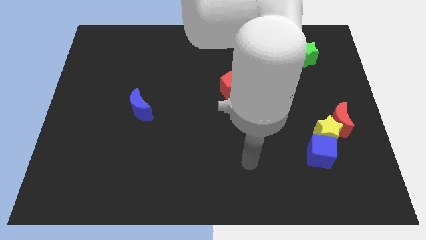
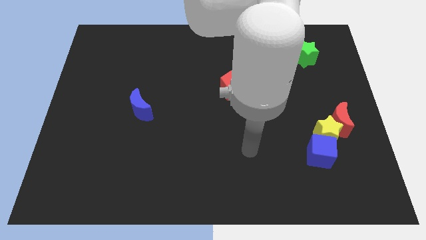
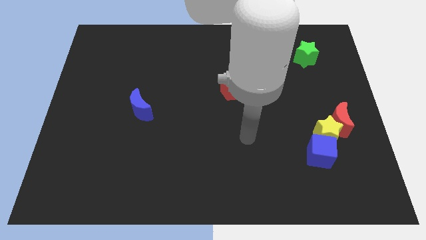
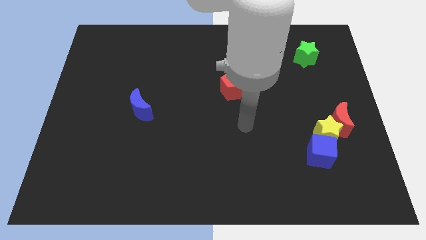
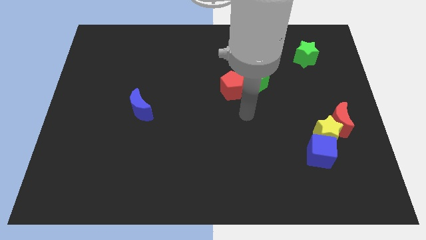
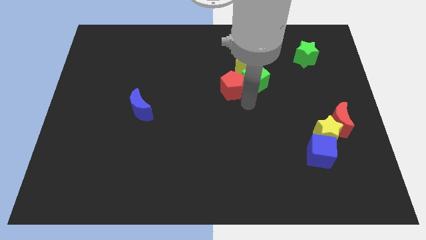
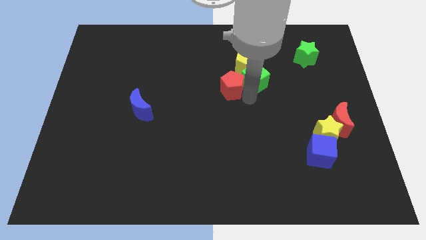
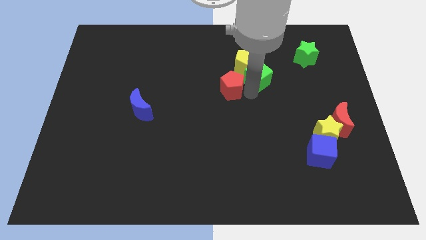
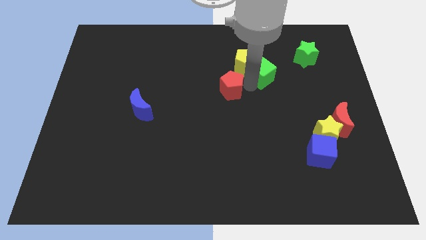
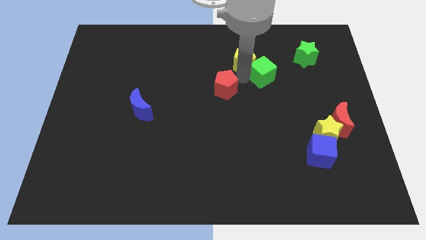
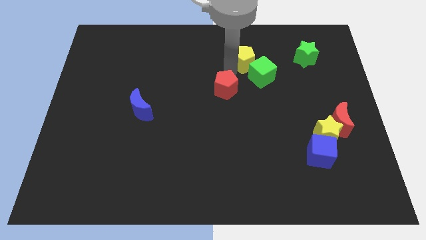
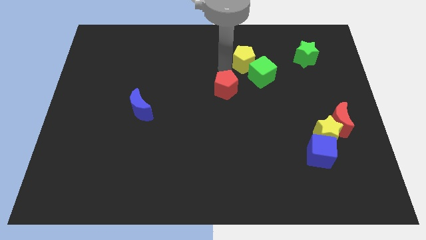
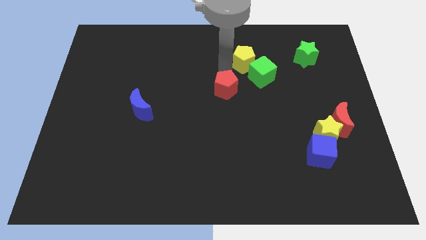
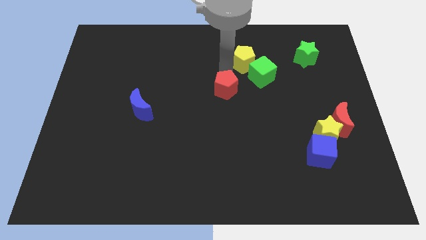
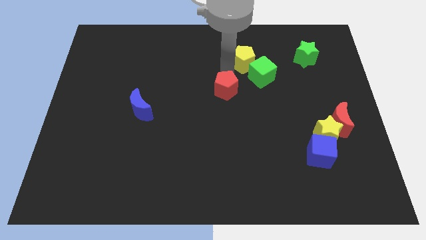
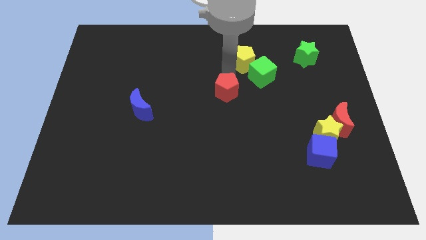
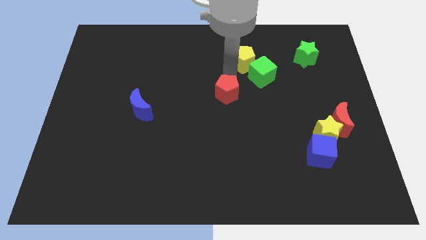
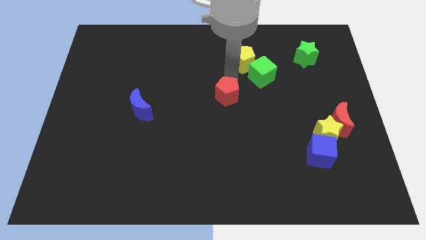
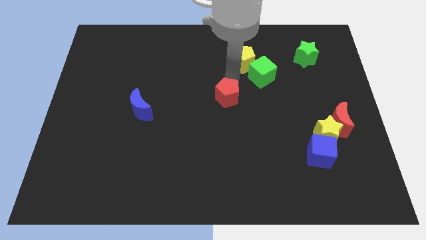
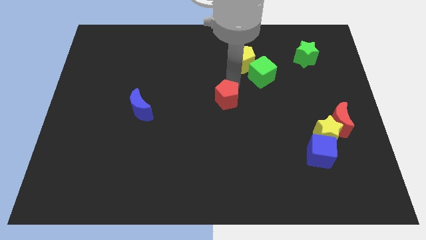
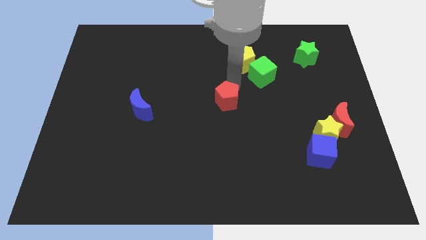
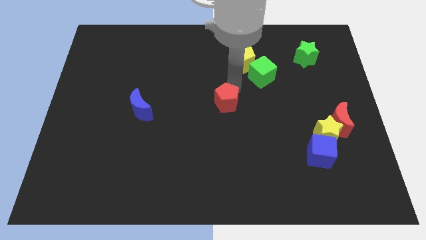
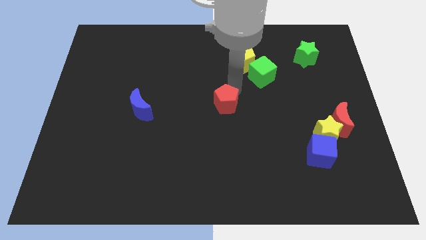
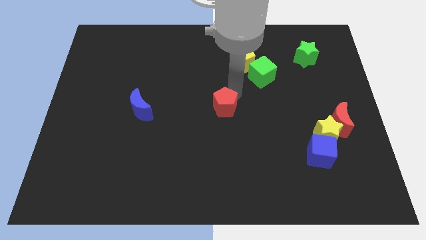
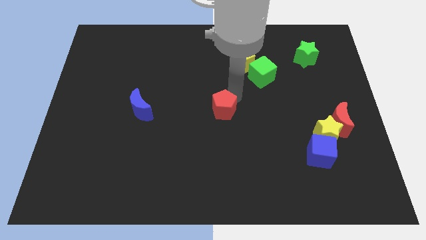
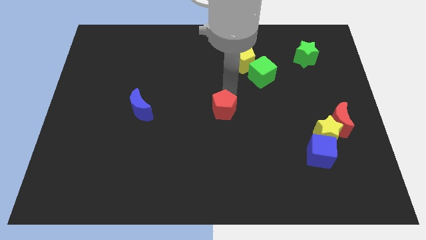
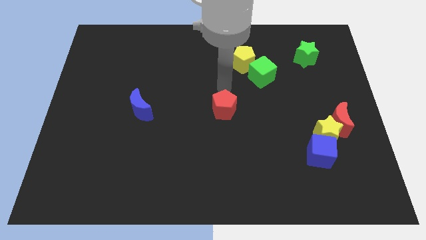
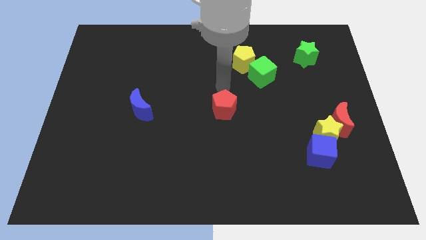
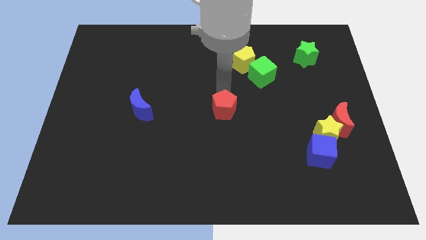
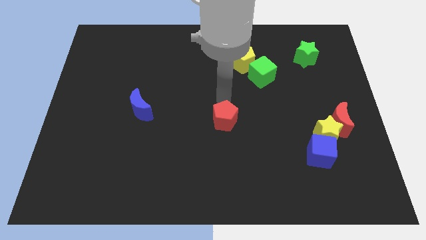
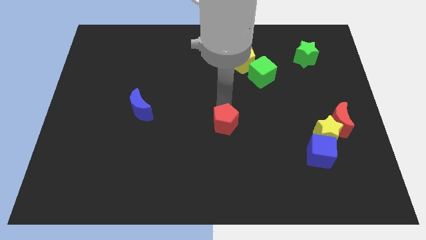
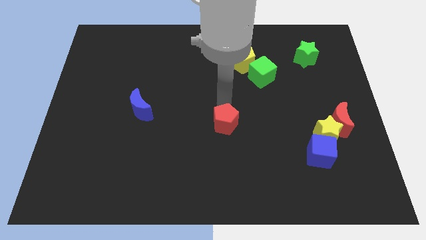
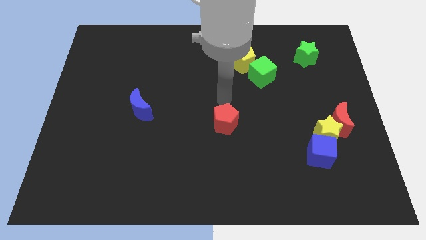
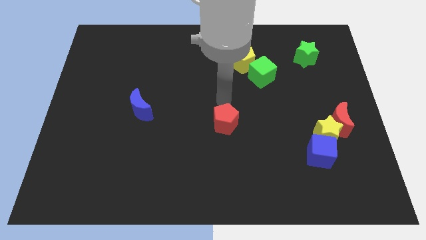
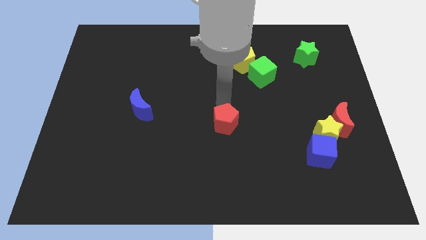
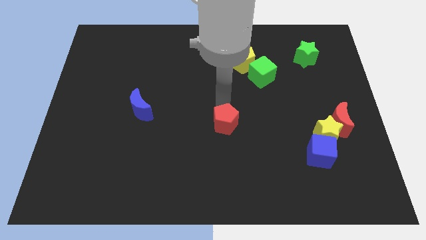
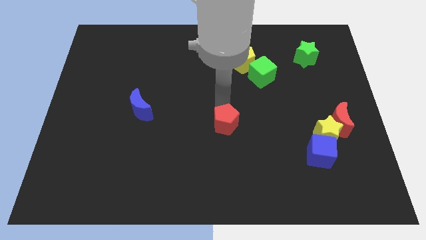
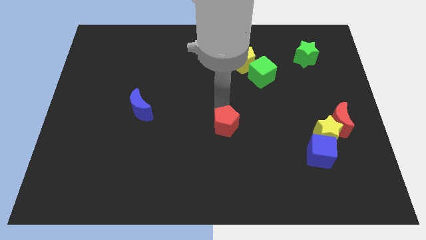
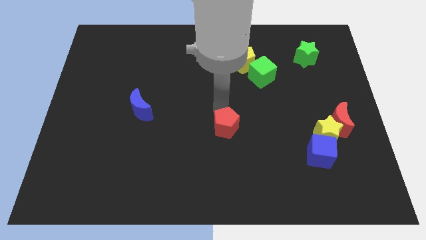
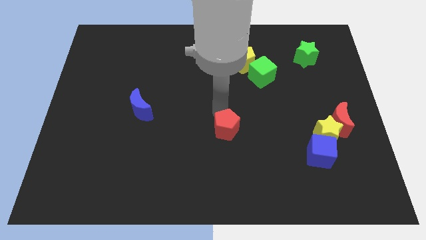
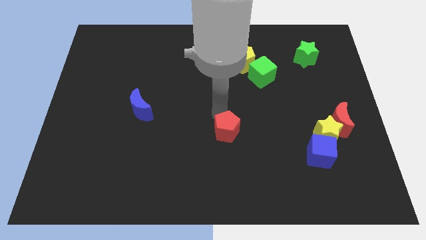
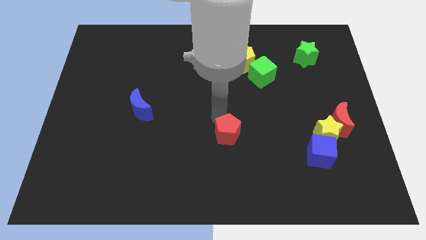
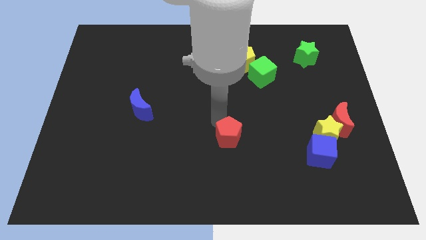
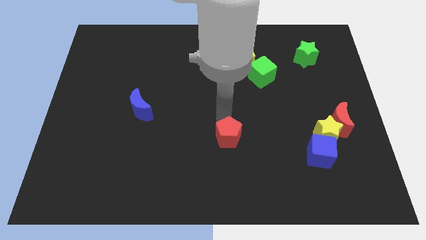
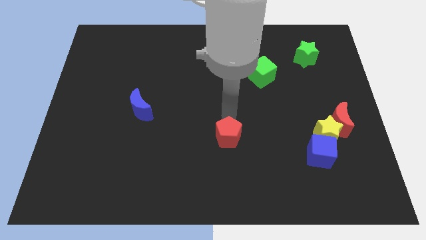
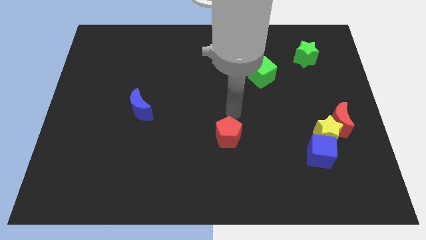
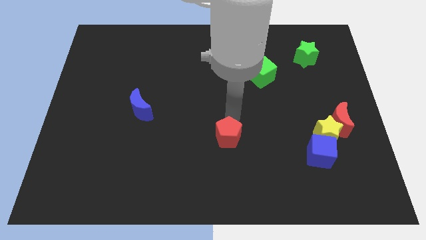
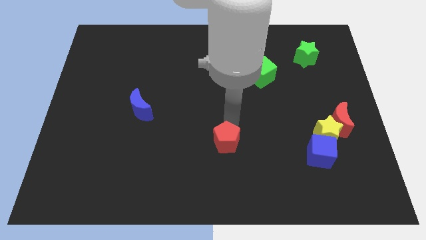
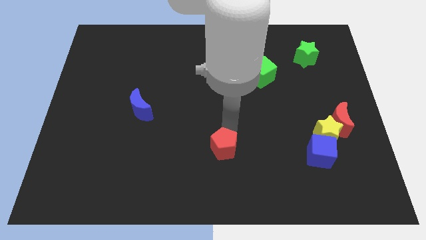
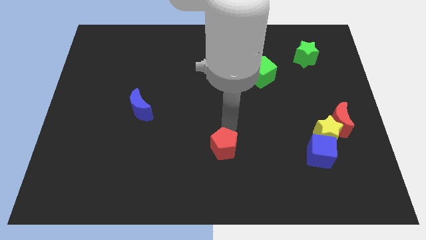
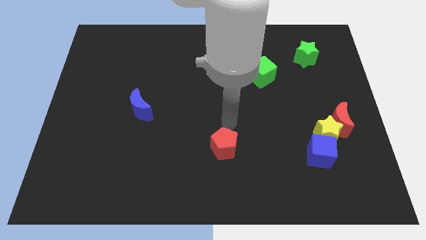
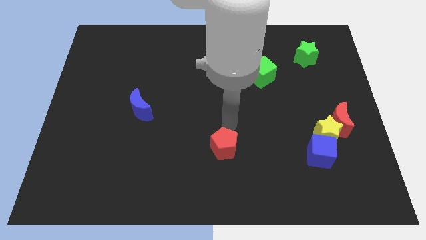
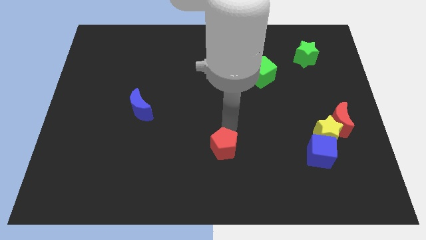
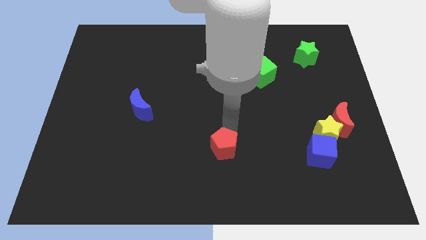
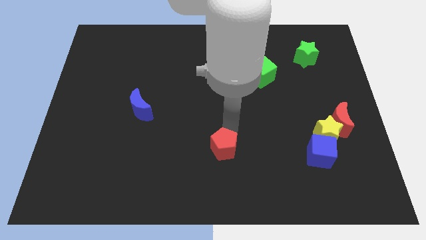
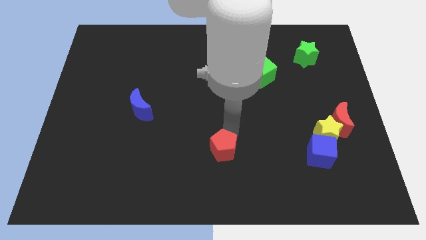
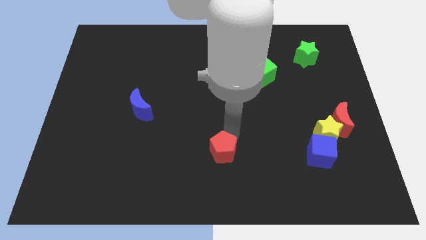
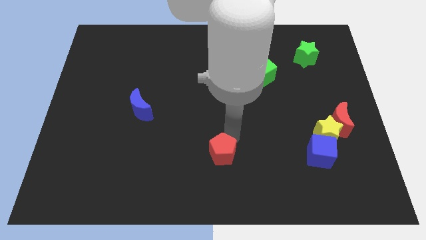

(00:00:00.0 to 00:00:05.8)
slide the red pentagon to the bottom side
